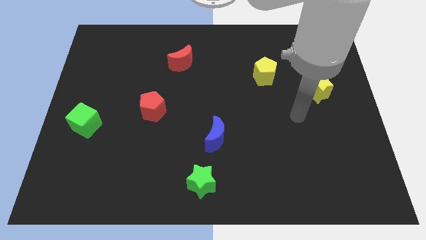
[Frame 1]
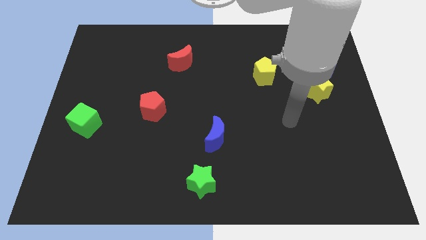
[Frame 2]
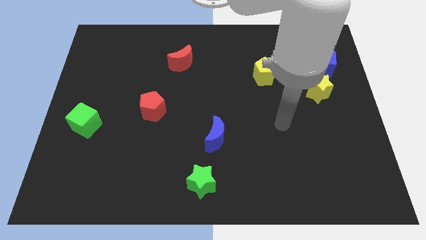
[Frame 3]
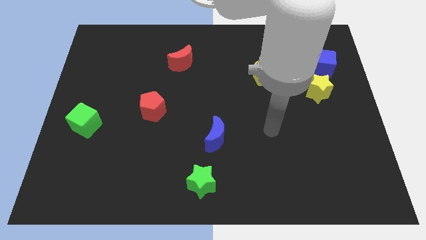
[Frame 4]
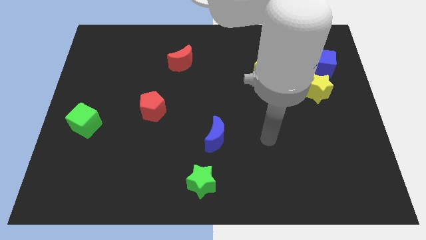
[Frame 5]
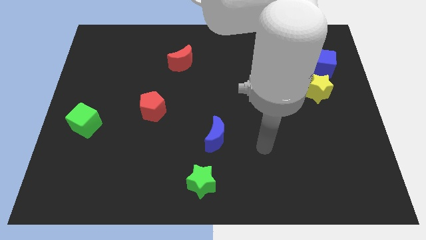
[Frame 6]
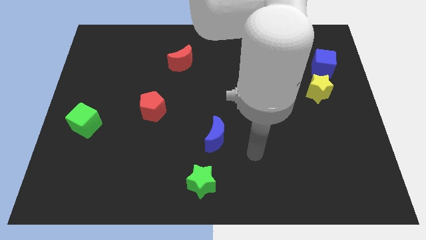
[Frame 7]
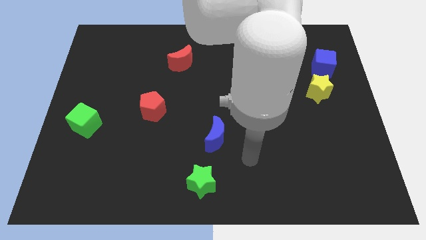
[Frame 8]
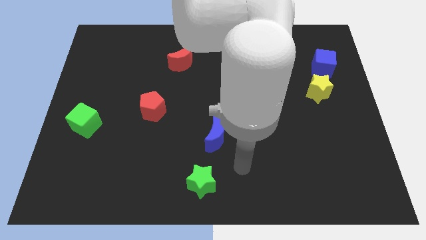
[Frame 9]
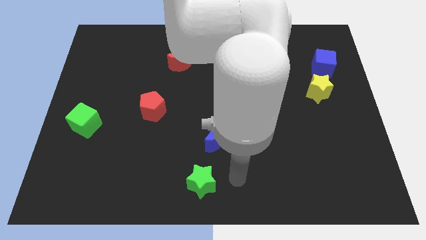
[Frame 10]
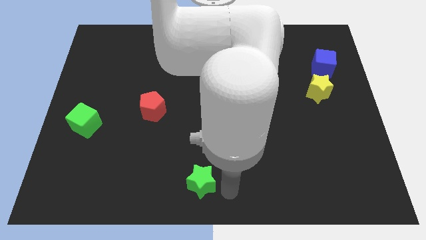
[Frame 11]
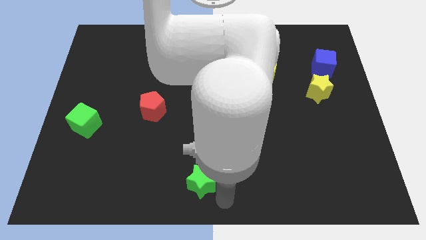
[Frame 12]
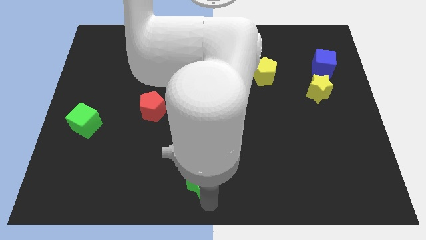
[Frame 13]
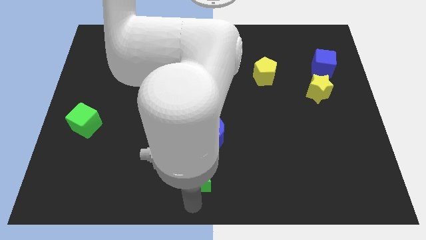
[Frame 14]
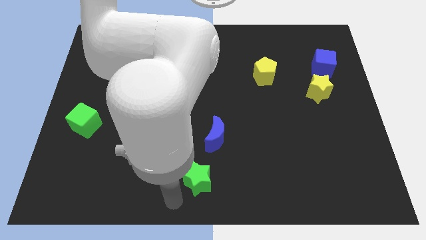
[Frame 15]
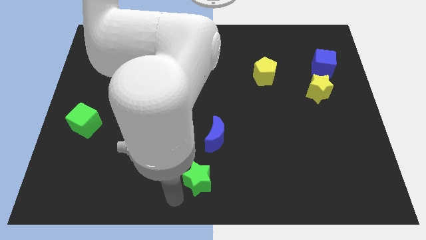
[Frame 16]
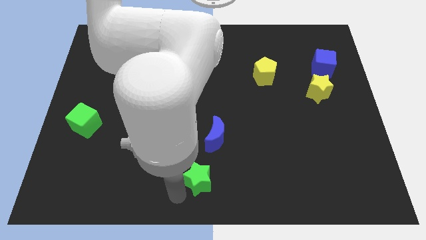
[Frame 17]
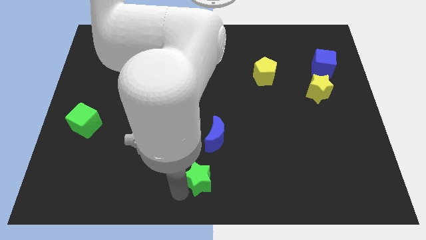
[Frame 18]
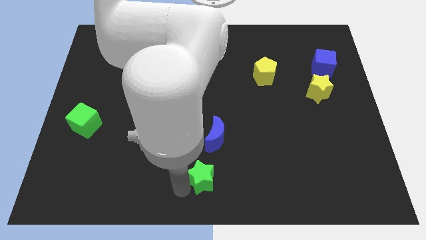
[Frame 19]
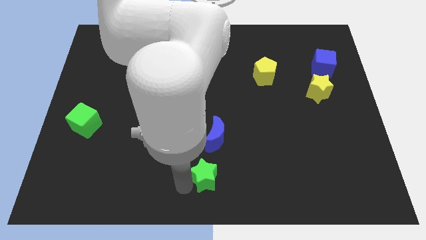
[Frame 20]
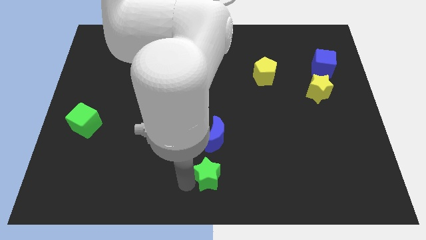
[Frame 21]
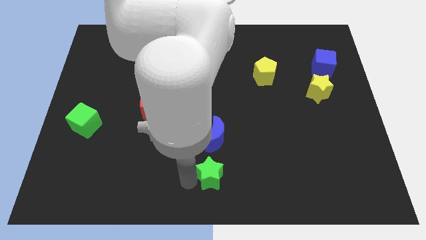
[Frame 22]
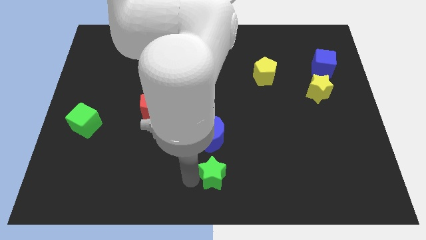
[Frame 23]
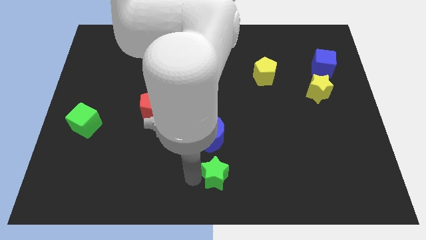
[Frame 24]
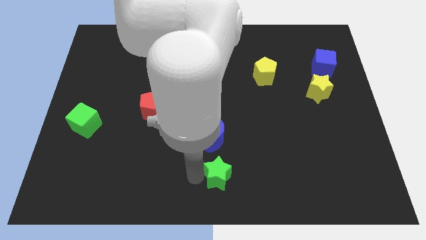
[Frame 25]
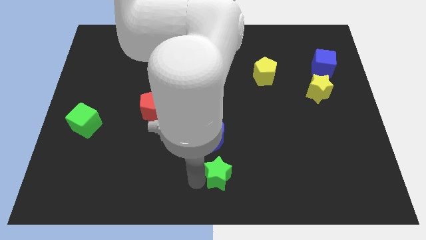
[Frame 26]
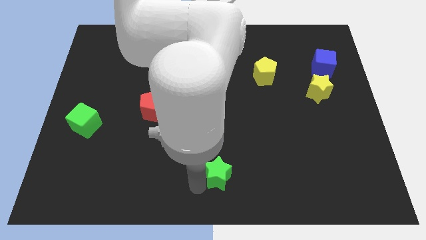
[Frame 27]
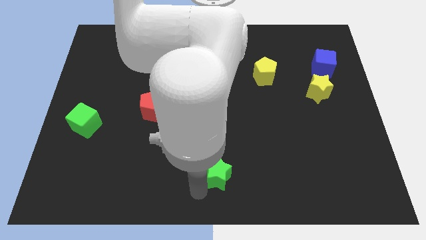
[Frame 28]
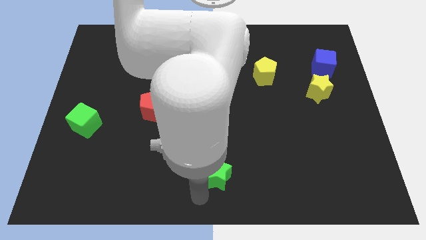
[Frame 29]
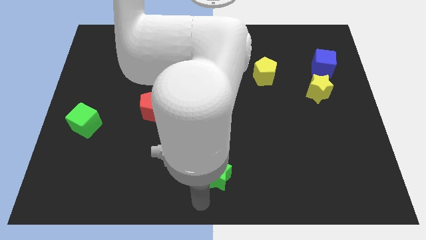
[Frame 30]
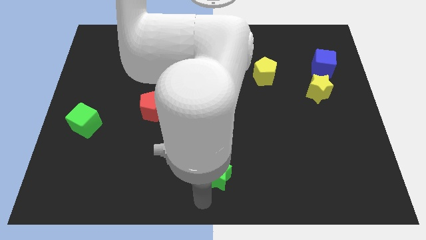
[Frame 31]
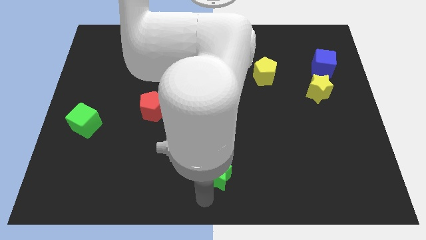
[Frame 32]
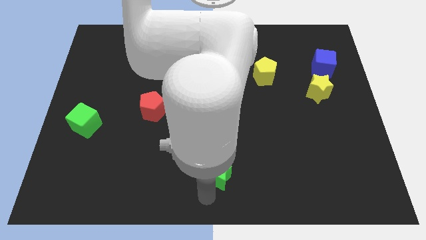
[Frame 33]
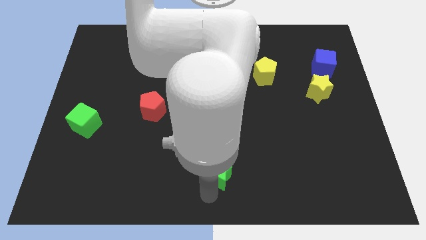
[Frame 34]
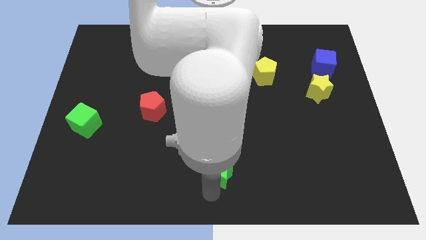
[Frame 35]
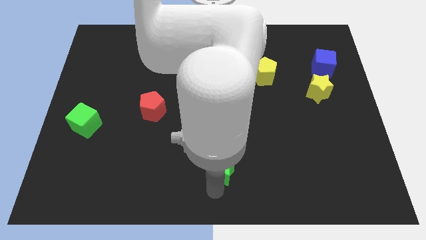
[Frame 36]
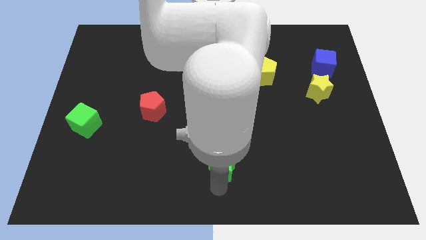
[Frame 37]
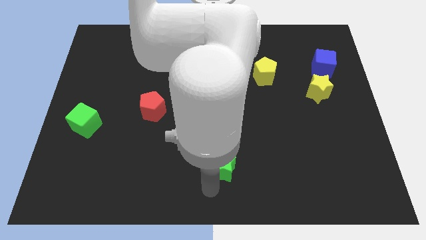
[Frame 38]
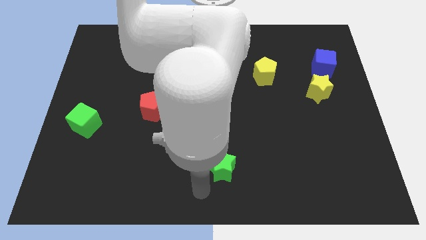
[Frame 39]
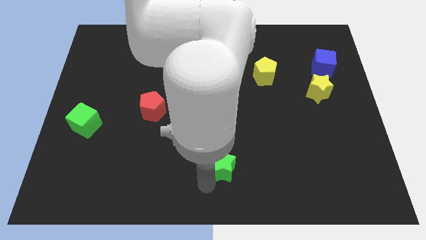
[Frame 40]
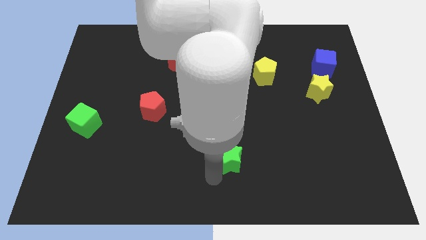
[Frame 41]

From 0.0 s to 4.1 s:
move the green star diagonally up and to the right somewhat

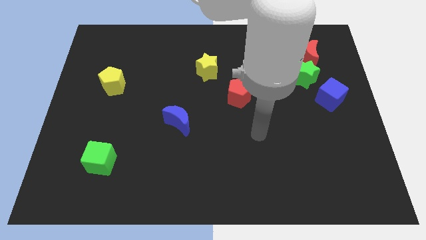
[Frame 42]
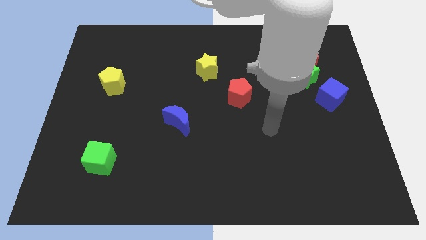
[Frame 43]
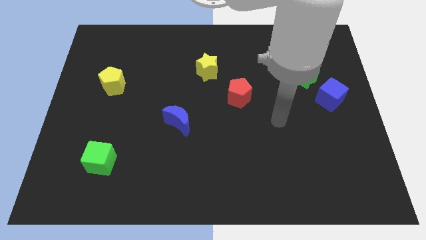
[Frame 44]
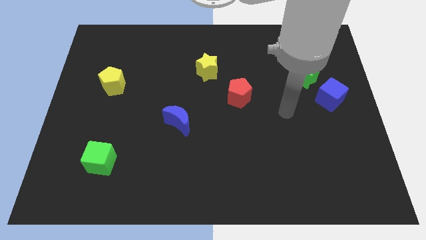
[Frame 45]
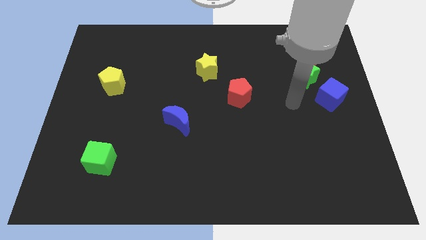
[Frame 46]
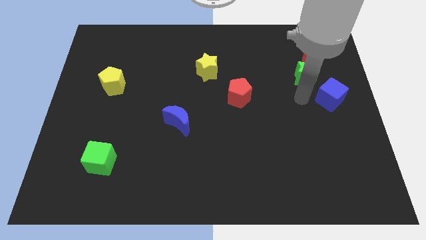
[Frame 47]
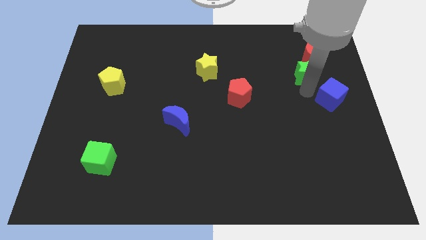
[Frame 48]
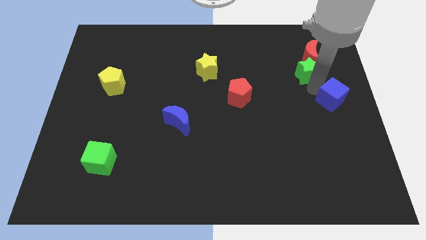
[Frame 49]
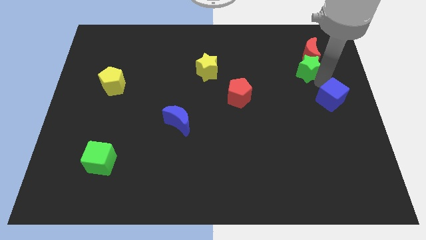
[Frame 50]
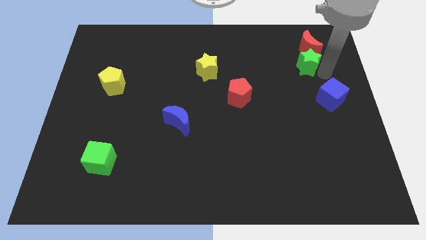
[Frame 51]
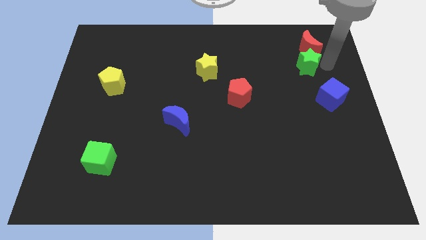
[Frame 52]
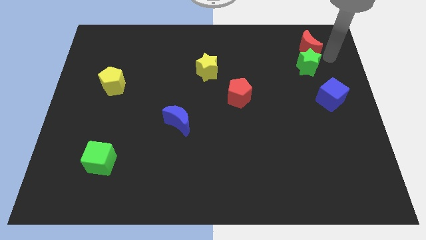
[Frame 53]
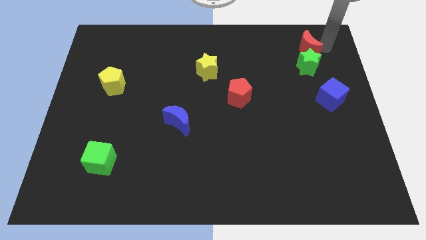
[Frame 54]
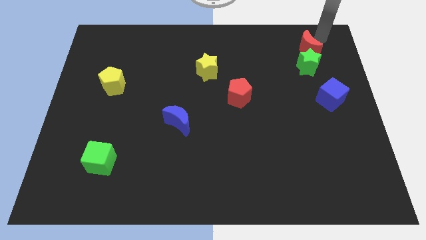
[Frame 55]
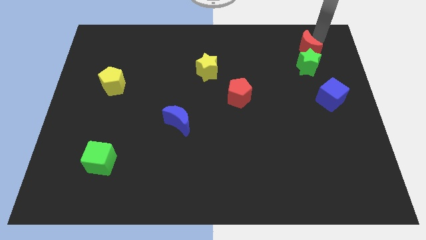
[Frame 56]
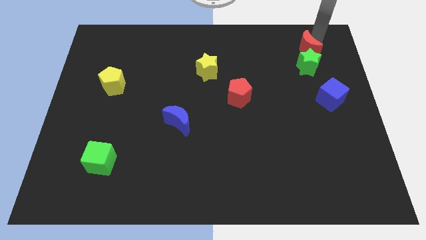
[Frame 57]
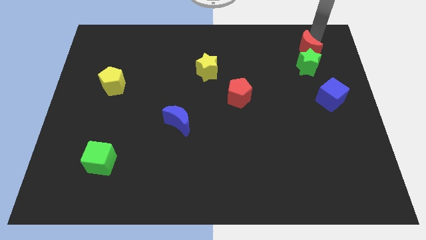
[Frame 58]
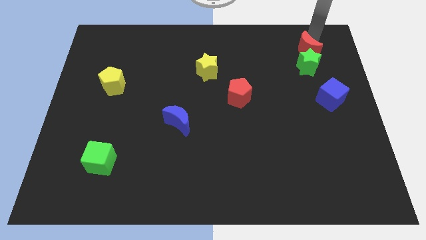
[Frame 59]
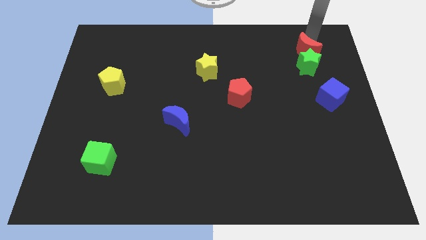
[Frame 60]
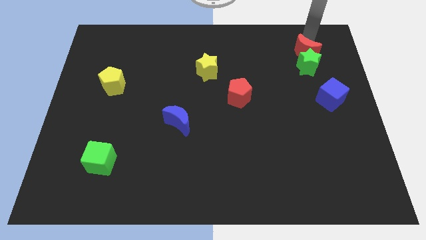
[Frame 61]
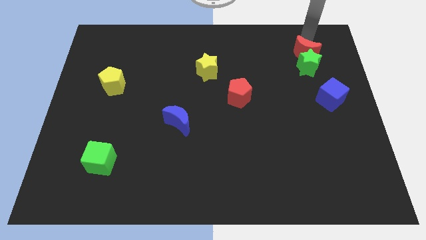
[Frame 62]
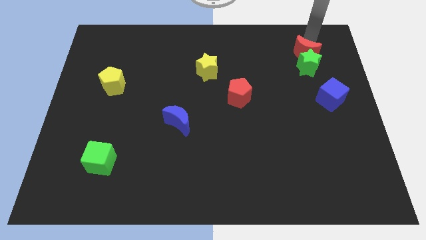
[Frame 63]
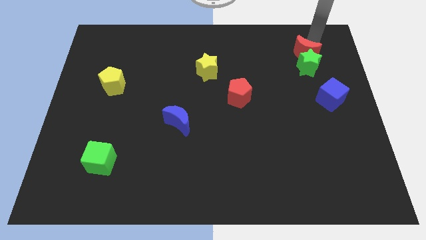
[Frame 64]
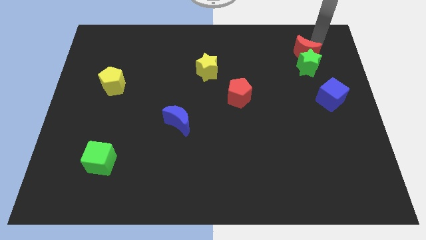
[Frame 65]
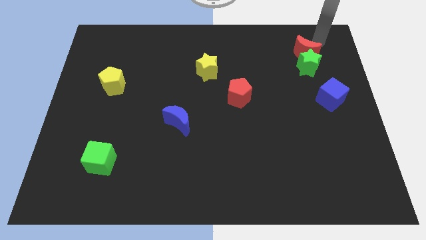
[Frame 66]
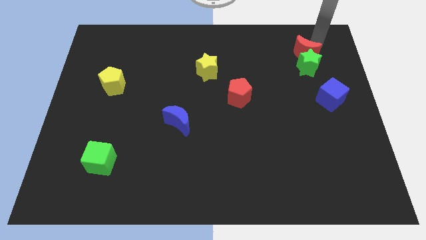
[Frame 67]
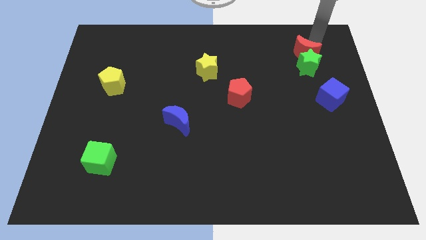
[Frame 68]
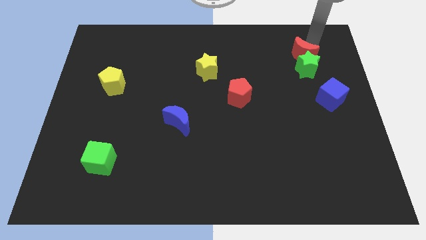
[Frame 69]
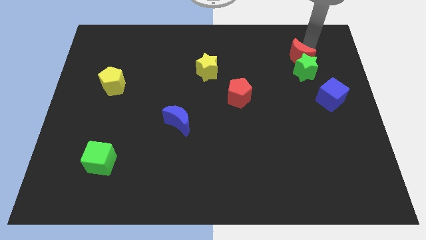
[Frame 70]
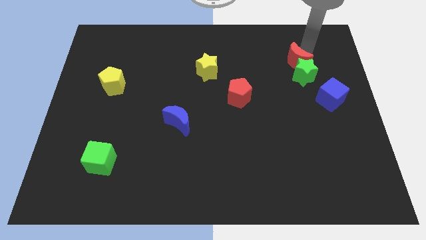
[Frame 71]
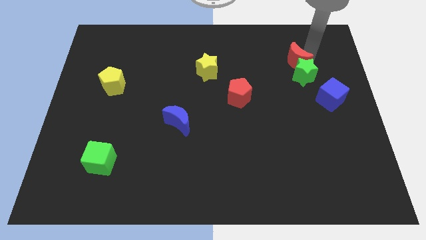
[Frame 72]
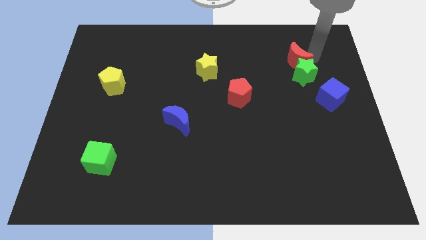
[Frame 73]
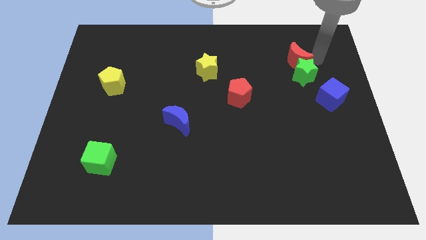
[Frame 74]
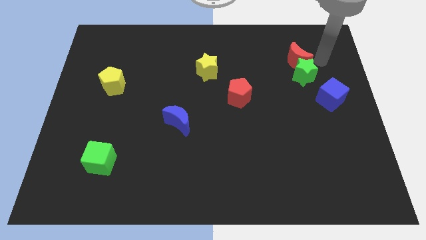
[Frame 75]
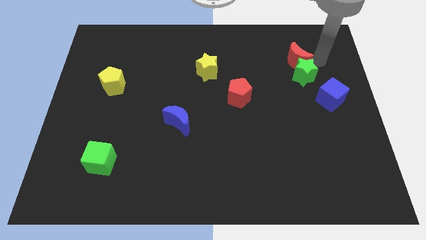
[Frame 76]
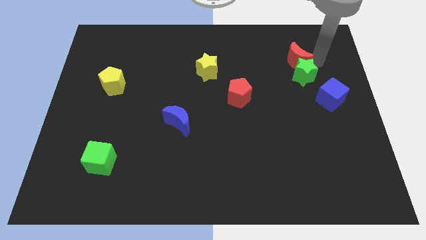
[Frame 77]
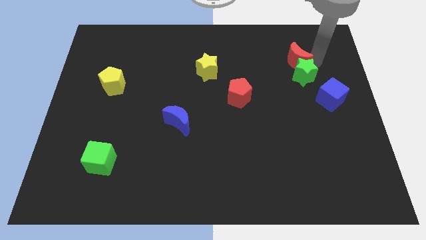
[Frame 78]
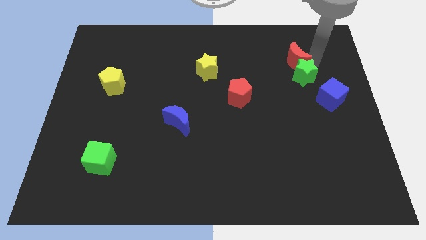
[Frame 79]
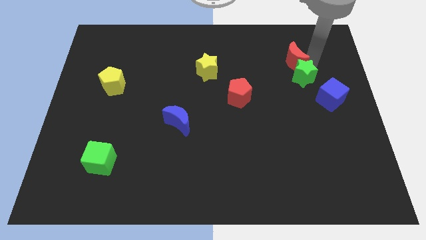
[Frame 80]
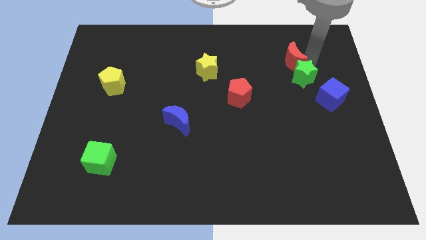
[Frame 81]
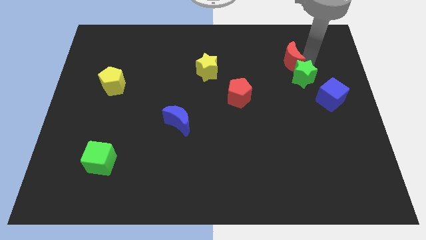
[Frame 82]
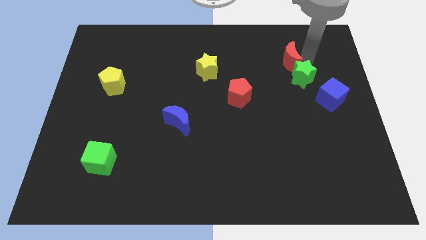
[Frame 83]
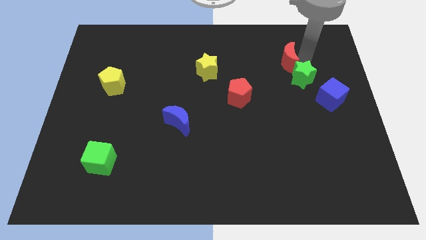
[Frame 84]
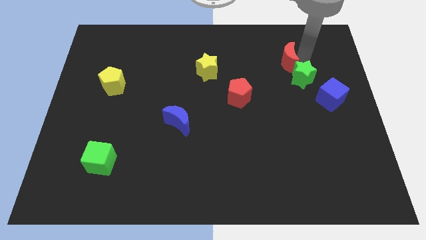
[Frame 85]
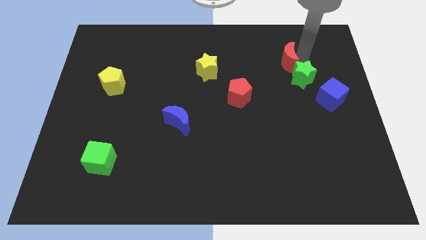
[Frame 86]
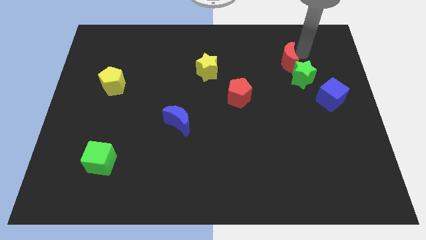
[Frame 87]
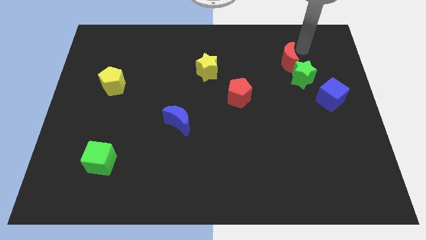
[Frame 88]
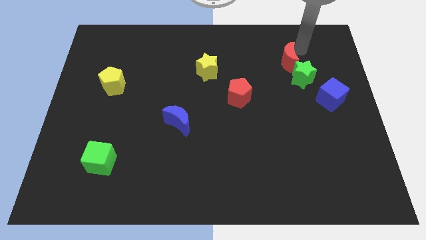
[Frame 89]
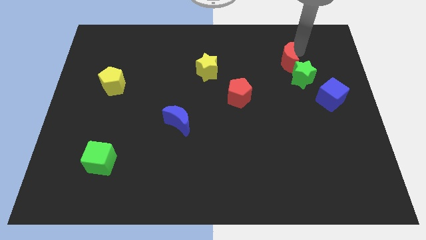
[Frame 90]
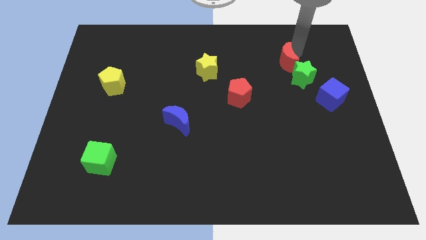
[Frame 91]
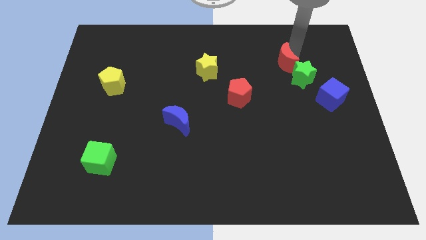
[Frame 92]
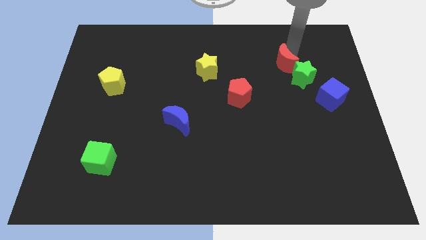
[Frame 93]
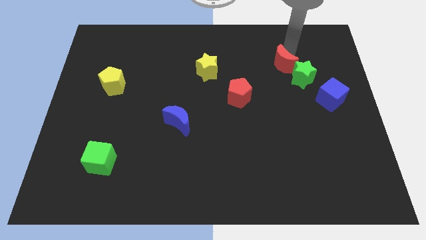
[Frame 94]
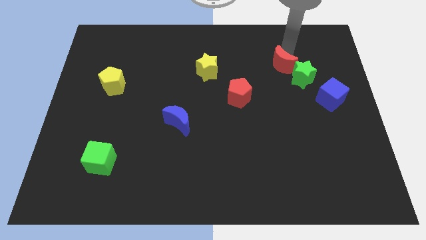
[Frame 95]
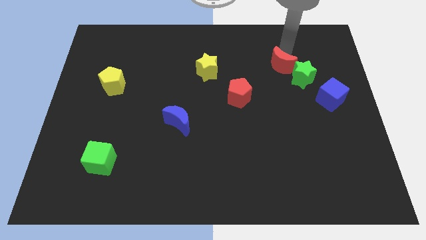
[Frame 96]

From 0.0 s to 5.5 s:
slide the red moon downwards and then left a little bit
